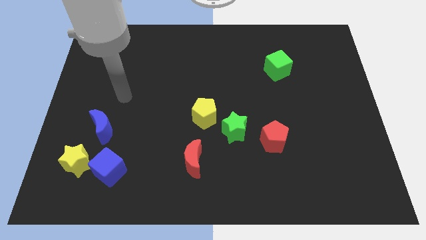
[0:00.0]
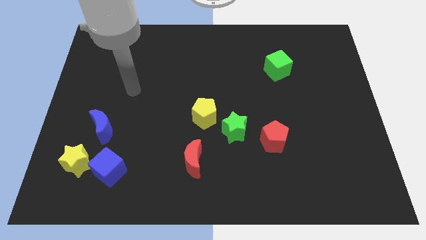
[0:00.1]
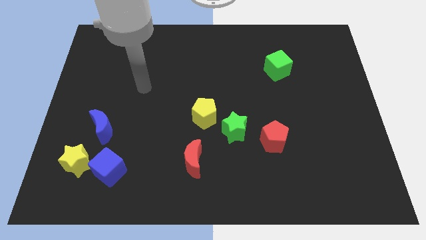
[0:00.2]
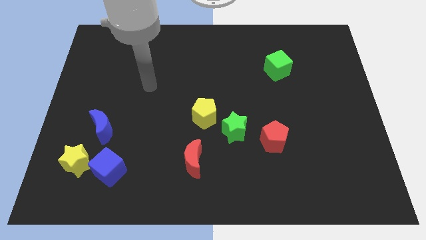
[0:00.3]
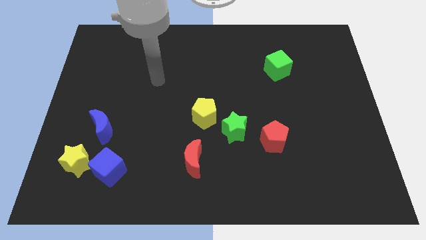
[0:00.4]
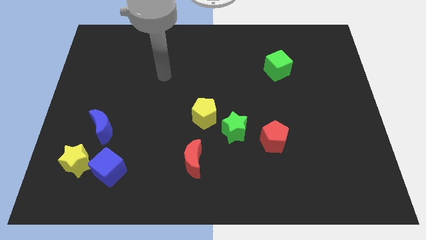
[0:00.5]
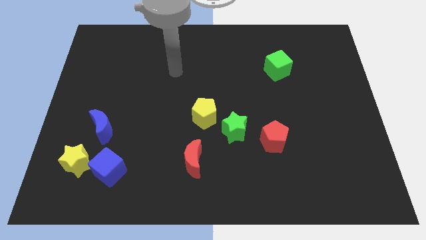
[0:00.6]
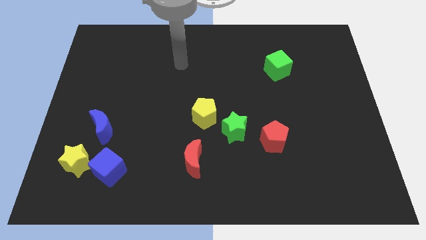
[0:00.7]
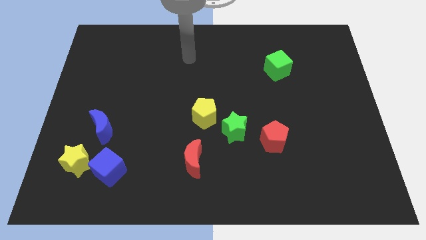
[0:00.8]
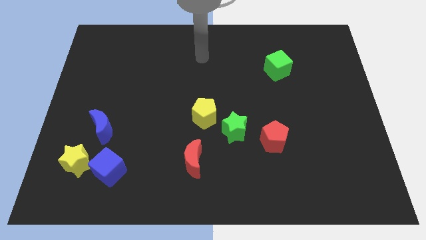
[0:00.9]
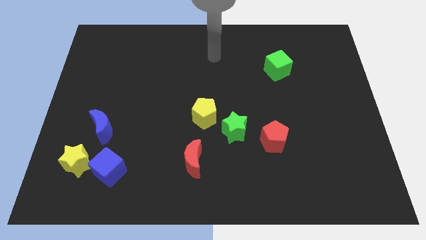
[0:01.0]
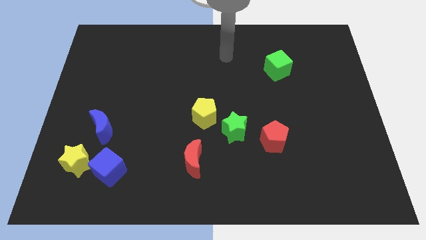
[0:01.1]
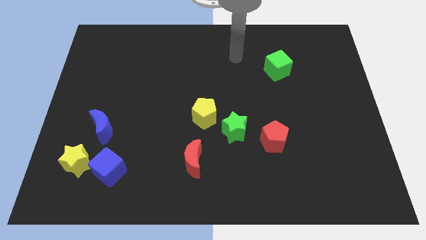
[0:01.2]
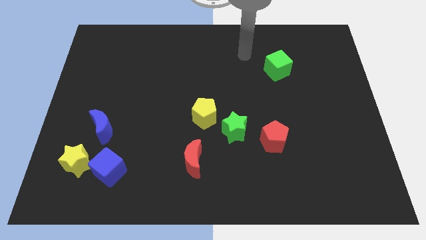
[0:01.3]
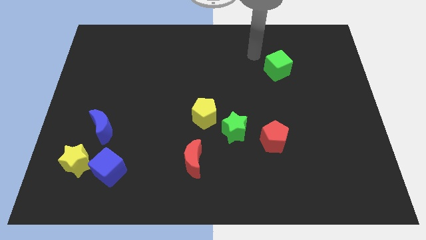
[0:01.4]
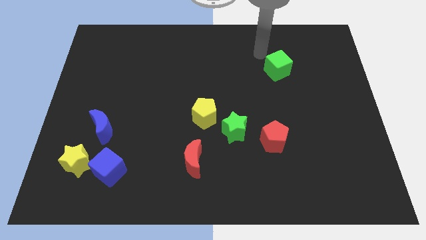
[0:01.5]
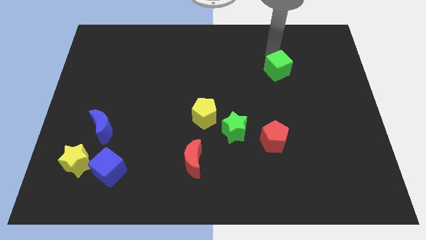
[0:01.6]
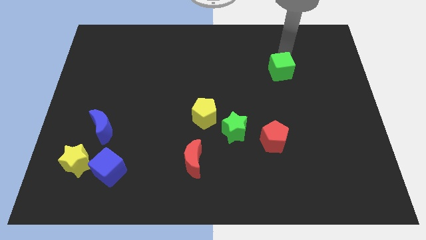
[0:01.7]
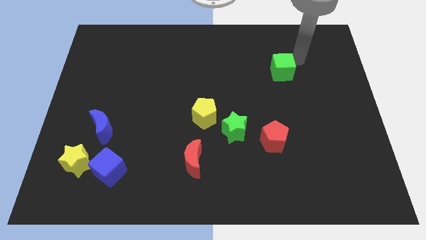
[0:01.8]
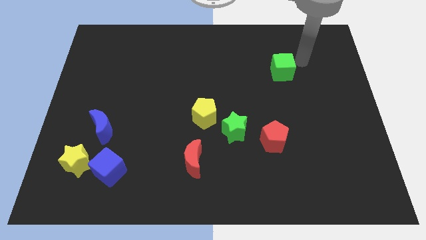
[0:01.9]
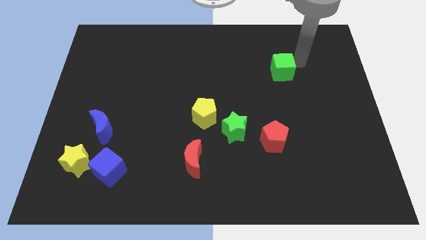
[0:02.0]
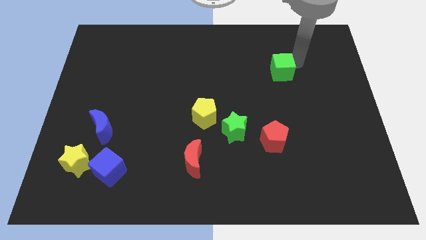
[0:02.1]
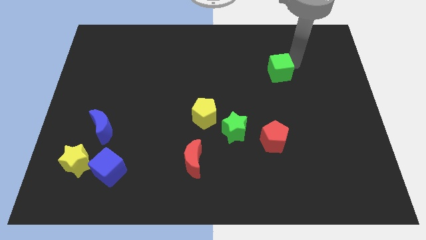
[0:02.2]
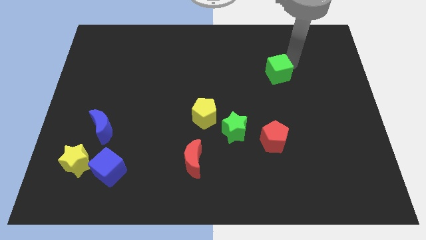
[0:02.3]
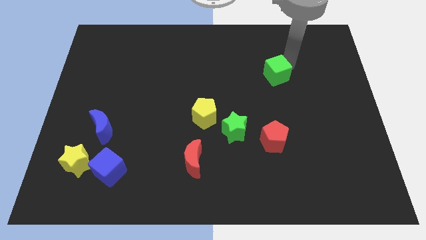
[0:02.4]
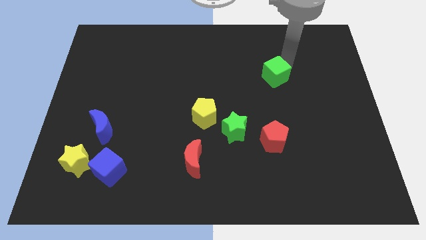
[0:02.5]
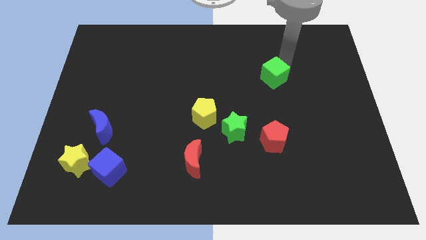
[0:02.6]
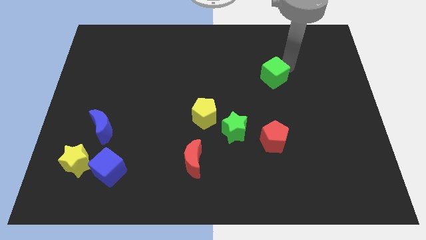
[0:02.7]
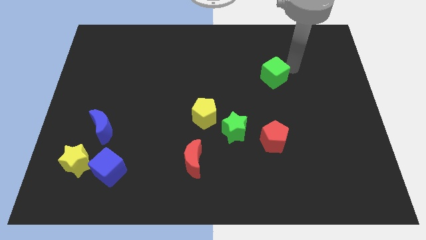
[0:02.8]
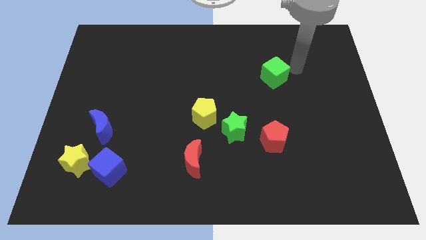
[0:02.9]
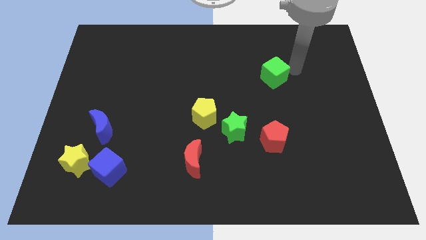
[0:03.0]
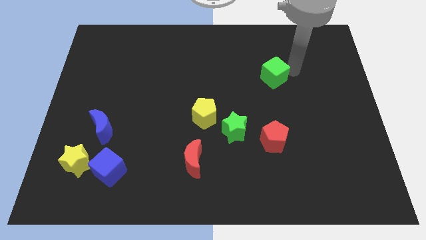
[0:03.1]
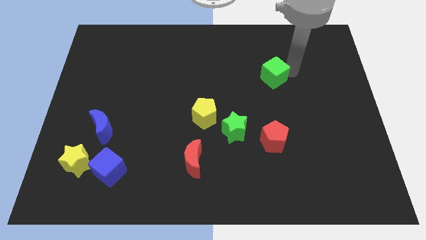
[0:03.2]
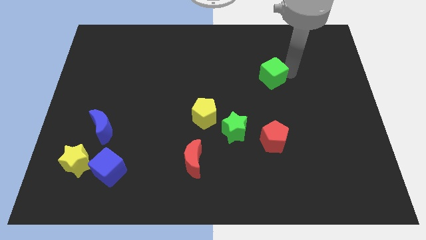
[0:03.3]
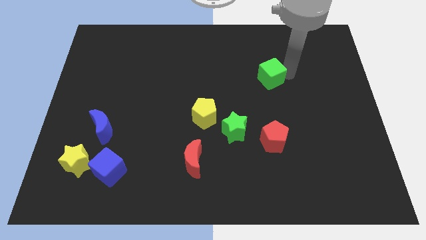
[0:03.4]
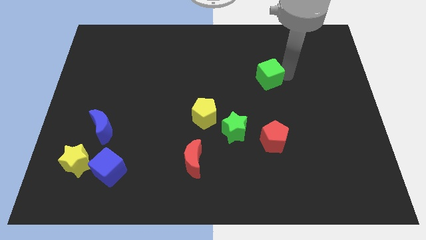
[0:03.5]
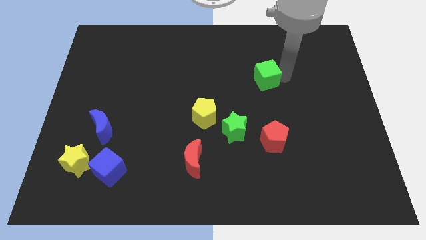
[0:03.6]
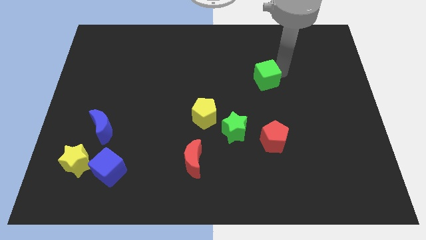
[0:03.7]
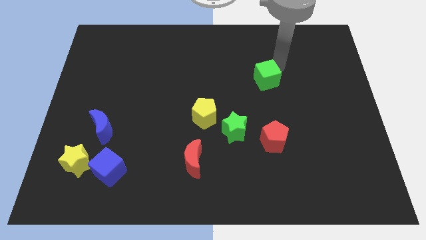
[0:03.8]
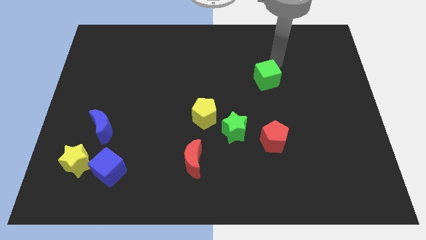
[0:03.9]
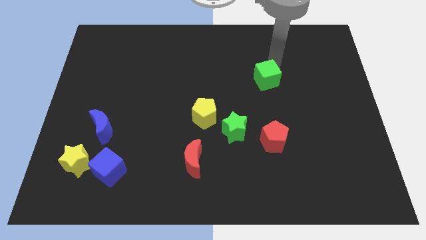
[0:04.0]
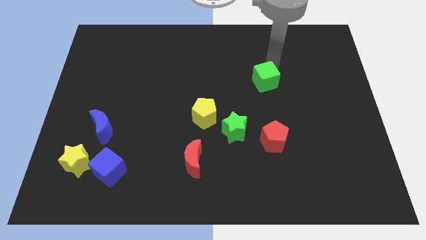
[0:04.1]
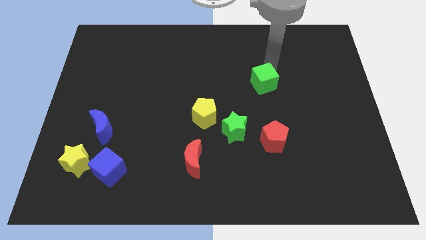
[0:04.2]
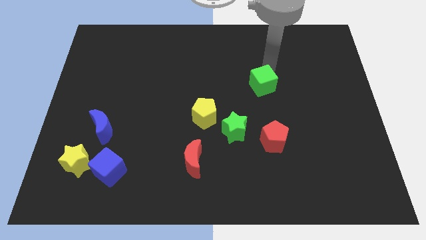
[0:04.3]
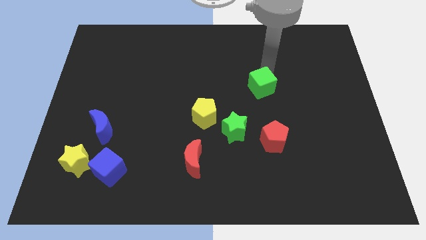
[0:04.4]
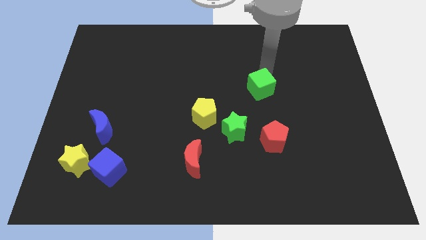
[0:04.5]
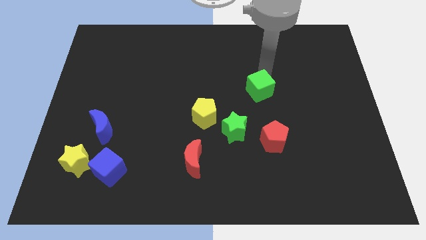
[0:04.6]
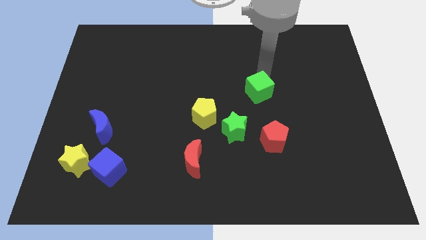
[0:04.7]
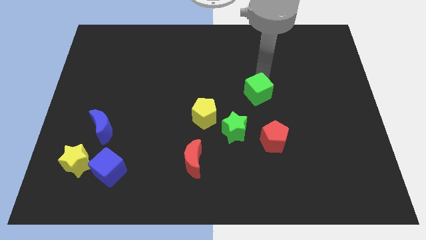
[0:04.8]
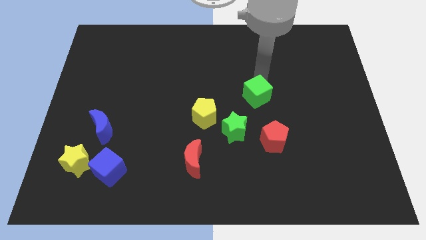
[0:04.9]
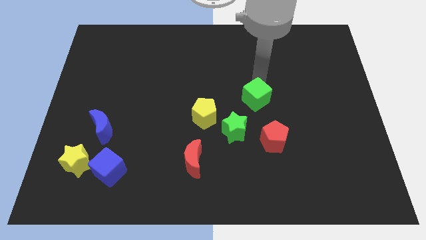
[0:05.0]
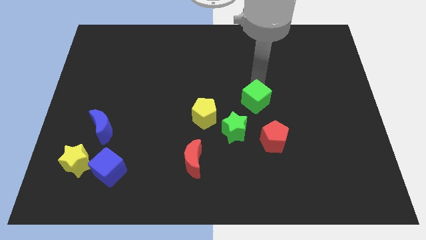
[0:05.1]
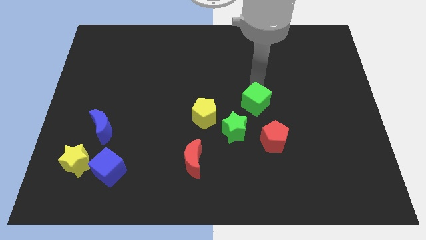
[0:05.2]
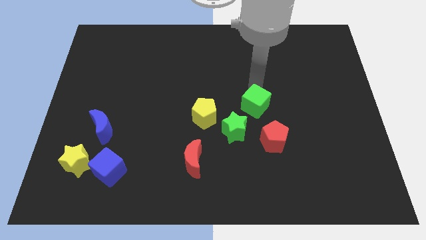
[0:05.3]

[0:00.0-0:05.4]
put the green cube to the top left of the red pentagon

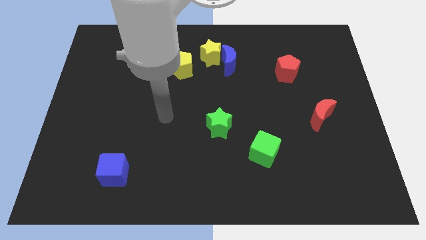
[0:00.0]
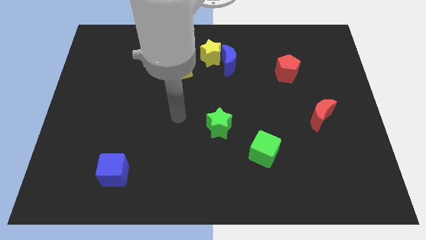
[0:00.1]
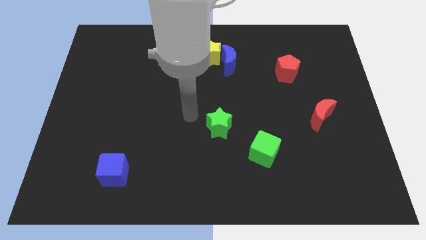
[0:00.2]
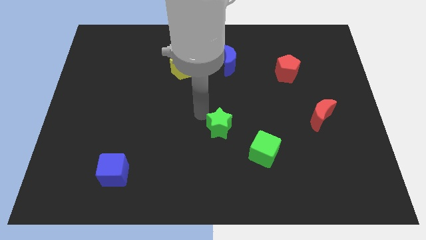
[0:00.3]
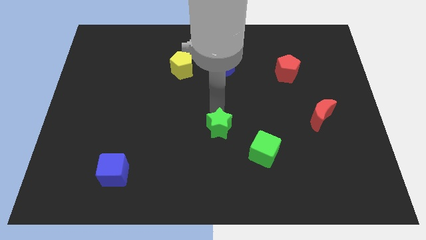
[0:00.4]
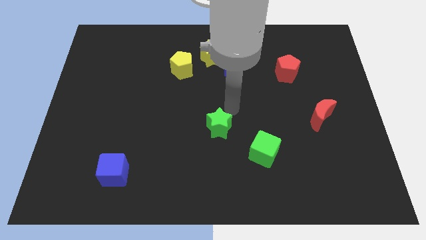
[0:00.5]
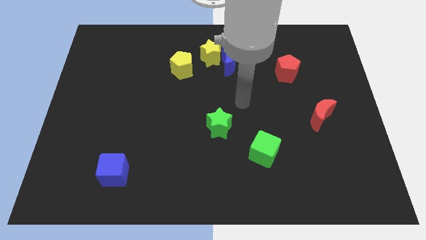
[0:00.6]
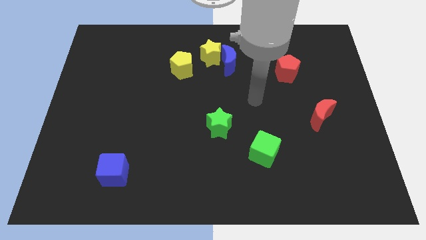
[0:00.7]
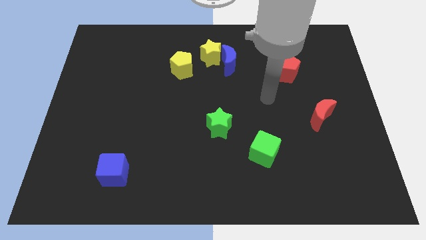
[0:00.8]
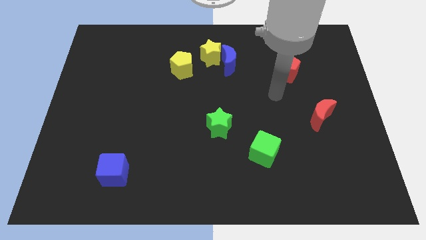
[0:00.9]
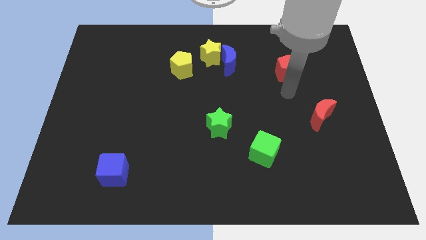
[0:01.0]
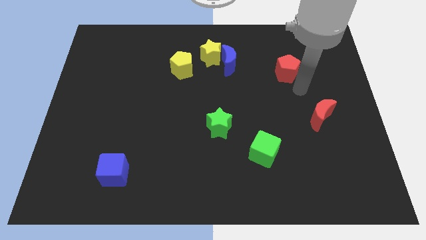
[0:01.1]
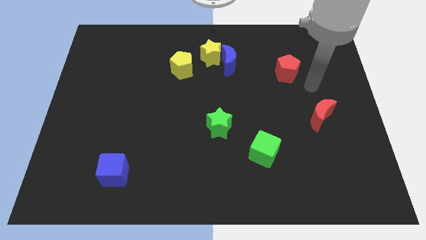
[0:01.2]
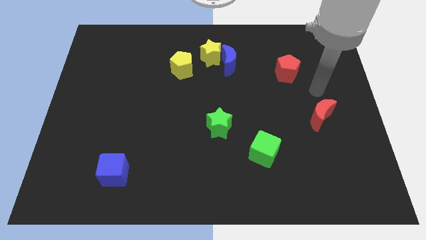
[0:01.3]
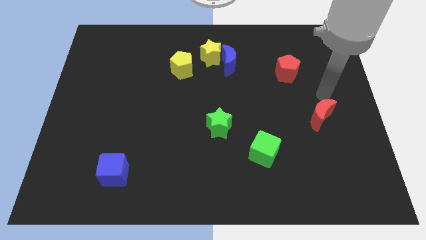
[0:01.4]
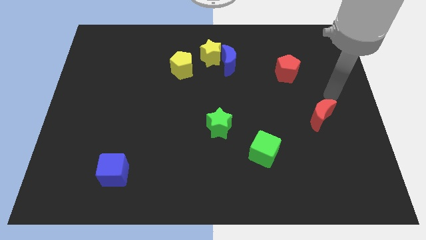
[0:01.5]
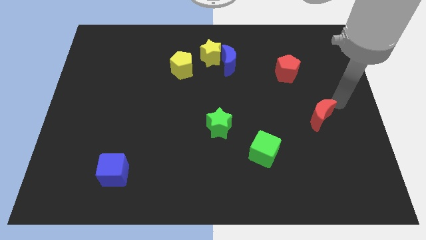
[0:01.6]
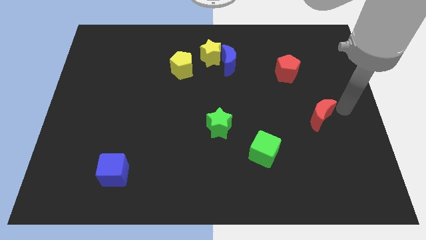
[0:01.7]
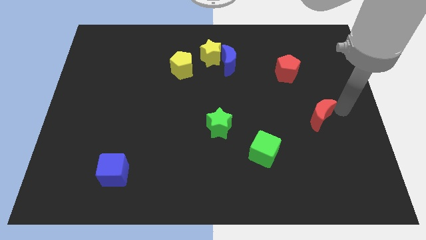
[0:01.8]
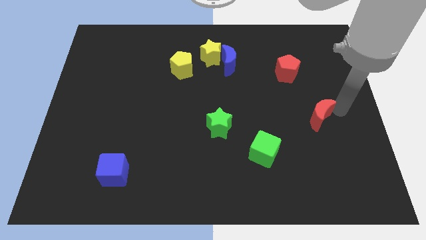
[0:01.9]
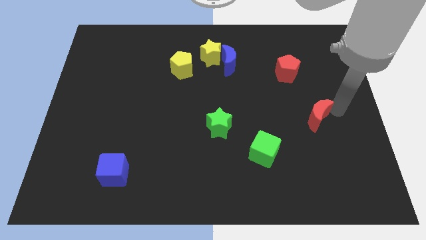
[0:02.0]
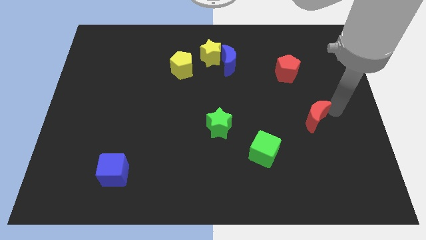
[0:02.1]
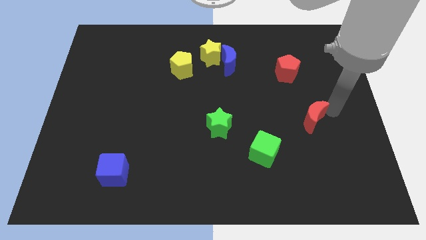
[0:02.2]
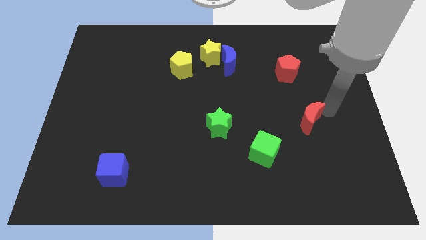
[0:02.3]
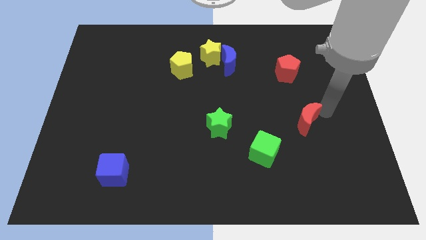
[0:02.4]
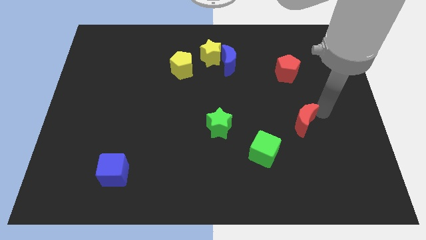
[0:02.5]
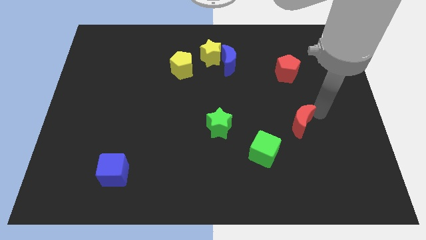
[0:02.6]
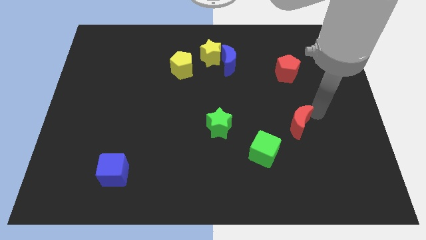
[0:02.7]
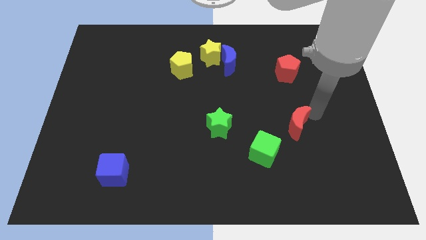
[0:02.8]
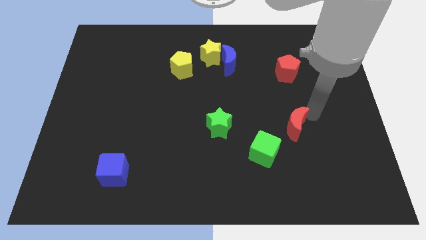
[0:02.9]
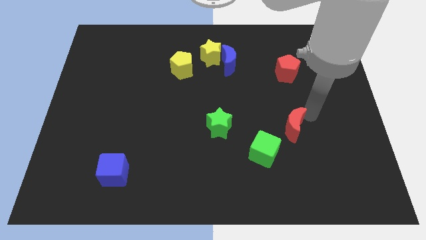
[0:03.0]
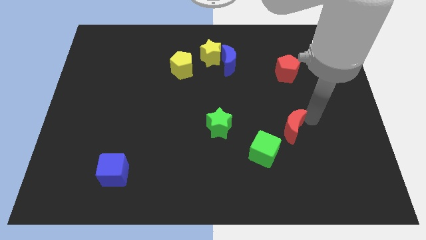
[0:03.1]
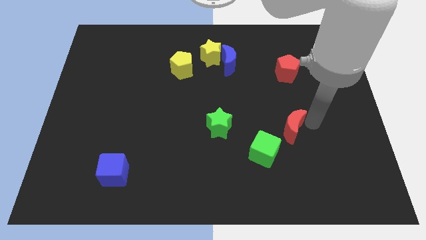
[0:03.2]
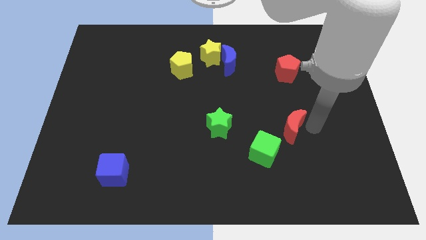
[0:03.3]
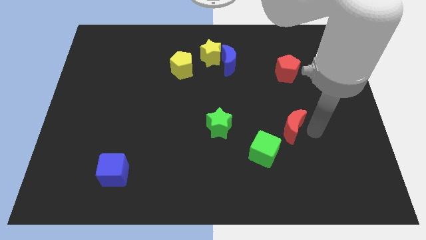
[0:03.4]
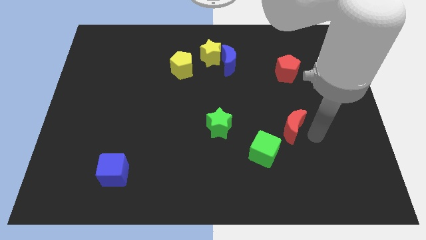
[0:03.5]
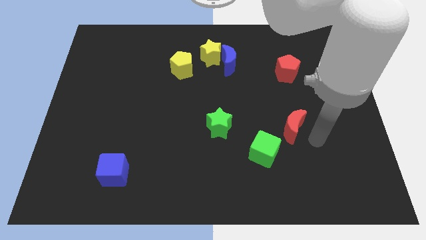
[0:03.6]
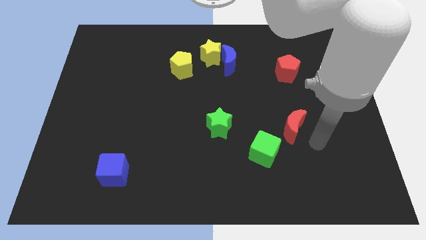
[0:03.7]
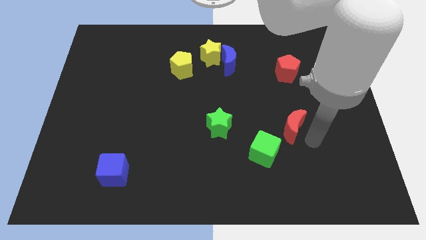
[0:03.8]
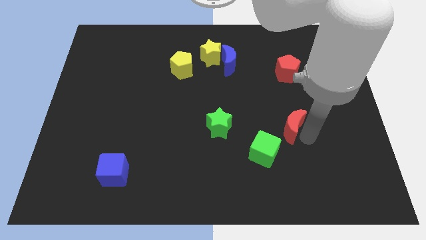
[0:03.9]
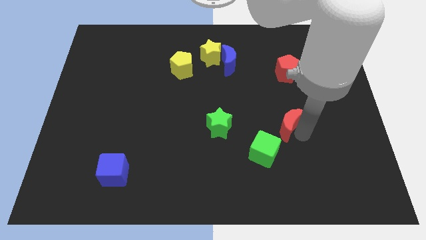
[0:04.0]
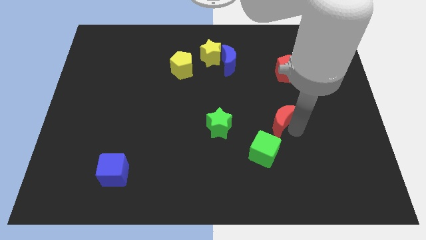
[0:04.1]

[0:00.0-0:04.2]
move the red moon to the top side of the green cube
